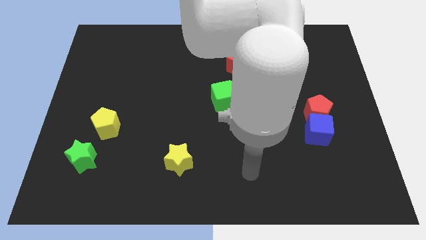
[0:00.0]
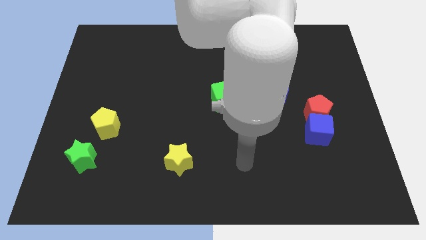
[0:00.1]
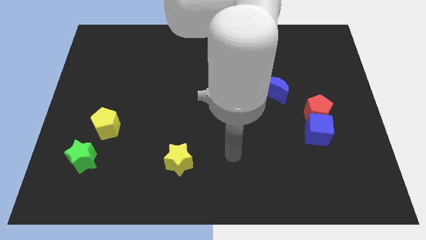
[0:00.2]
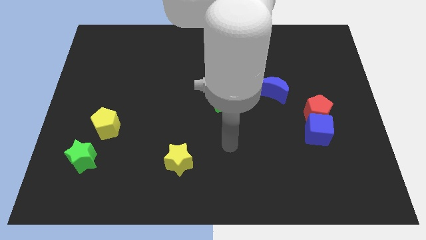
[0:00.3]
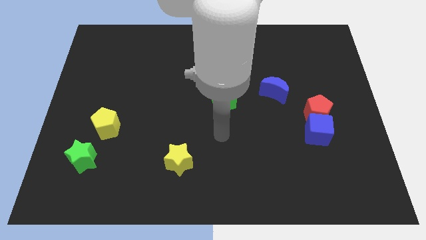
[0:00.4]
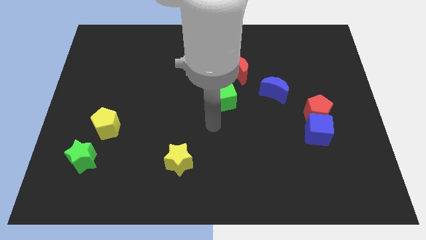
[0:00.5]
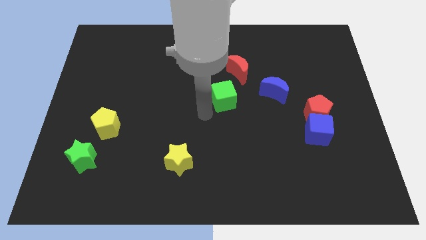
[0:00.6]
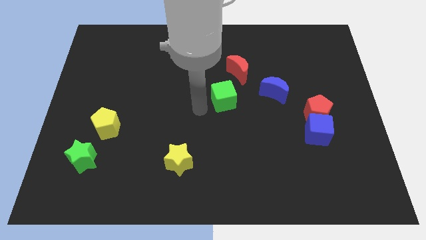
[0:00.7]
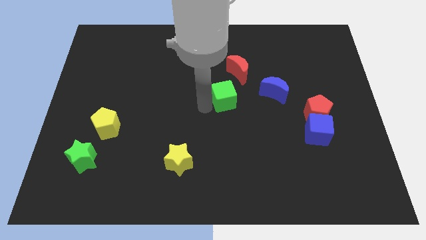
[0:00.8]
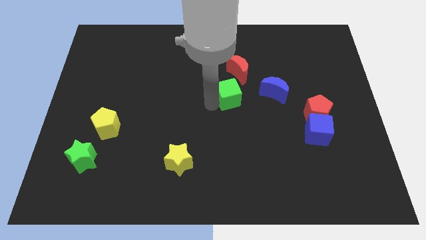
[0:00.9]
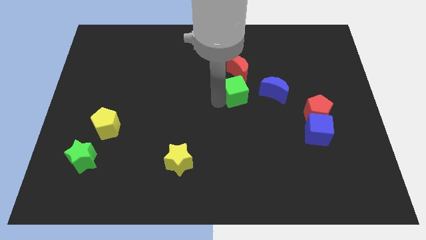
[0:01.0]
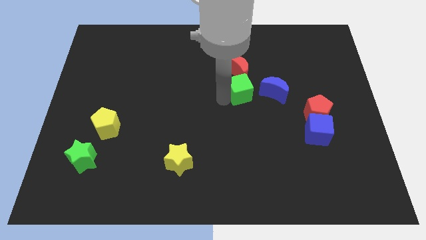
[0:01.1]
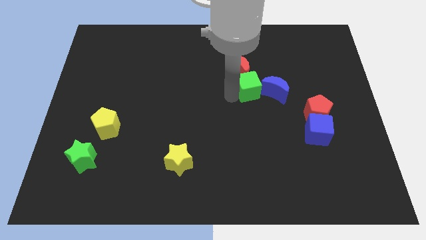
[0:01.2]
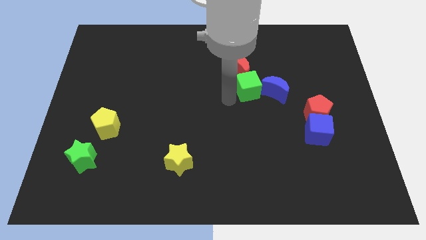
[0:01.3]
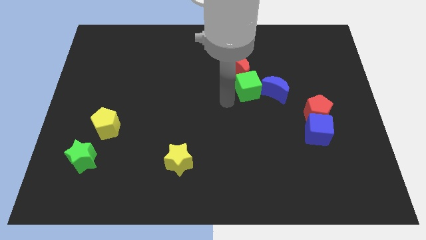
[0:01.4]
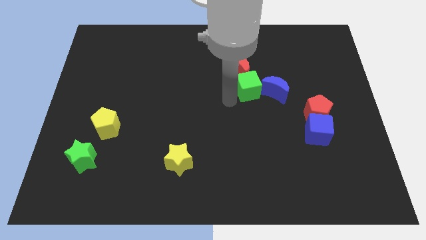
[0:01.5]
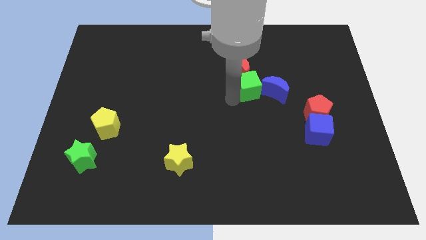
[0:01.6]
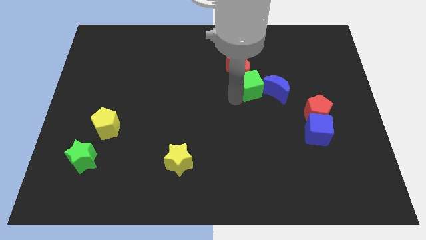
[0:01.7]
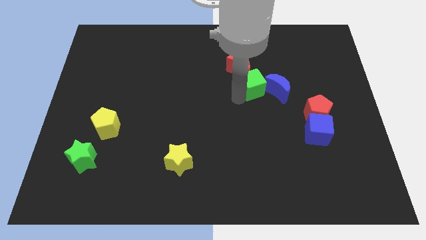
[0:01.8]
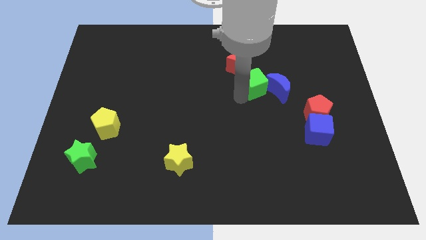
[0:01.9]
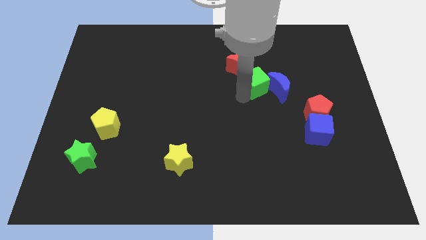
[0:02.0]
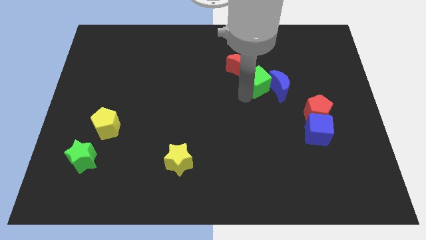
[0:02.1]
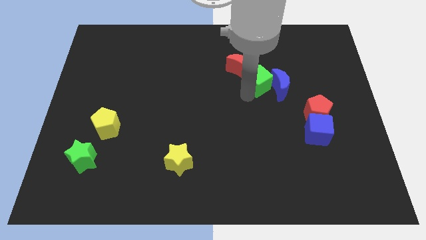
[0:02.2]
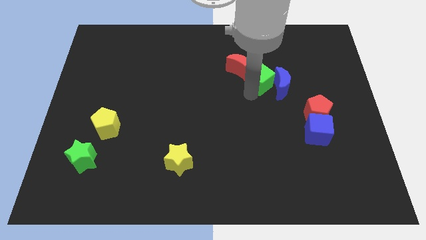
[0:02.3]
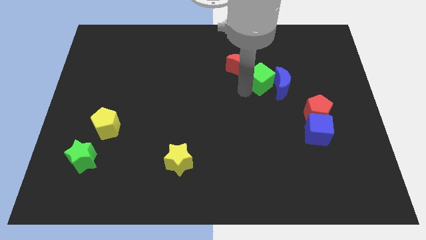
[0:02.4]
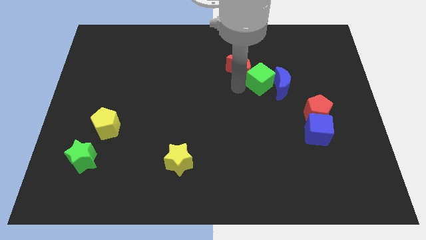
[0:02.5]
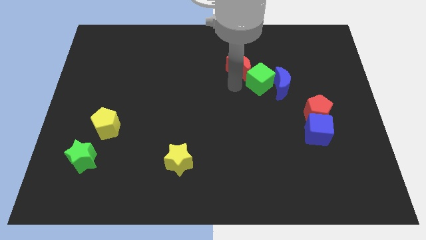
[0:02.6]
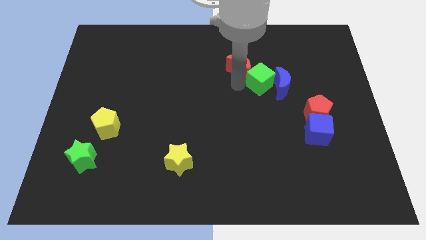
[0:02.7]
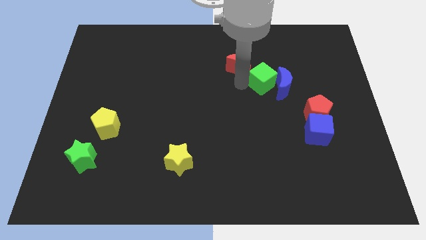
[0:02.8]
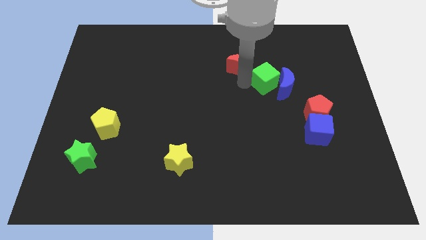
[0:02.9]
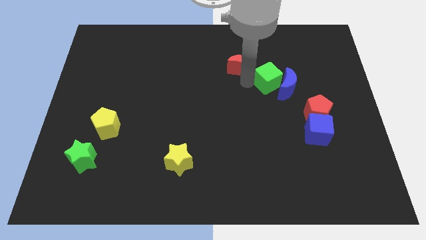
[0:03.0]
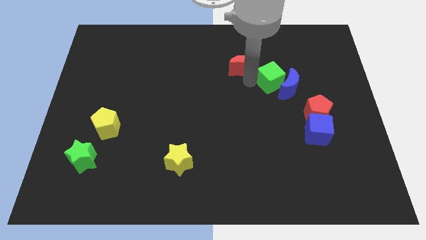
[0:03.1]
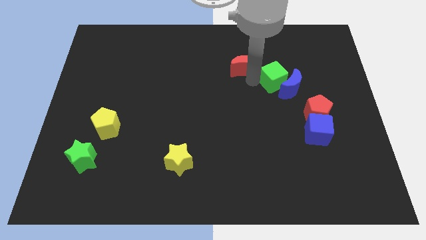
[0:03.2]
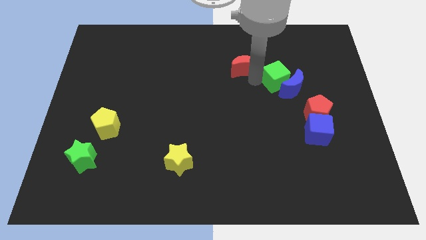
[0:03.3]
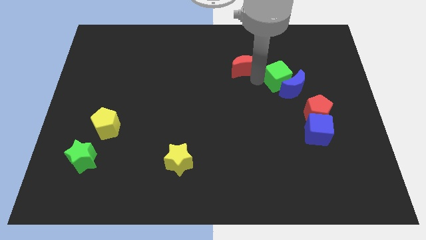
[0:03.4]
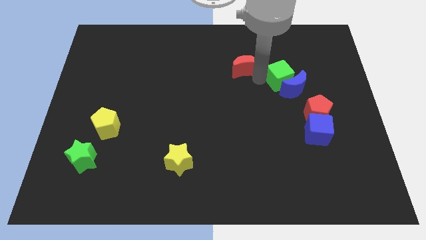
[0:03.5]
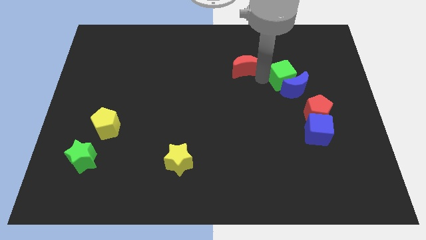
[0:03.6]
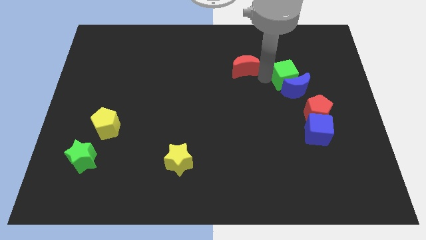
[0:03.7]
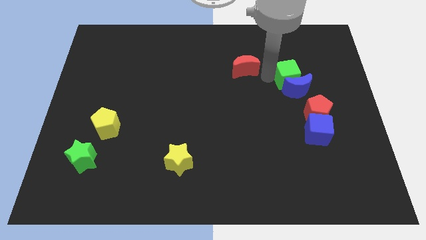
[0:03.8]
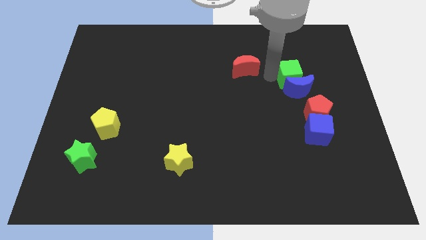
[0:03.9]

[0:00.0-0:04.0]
slide the green cube to the top side of the red pentagon

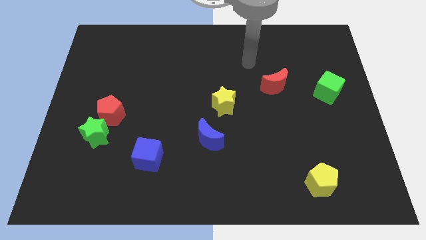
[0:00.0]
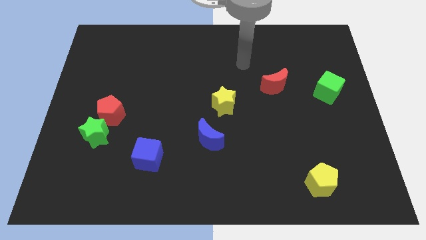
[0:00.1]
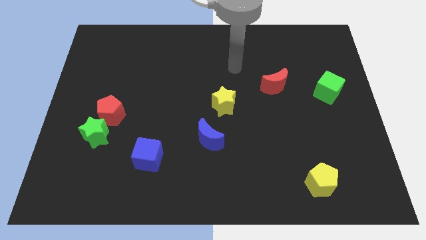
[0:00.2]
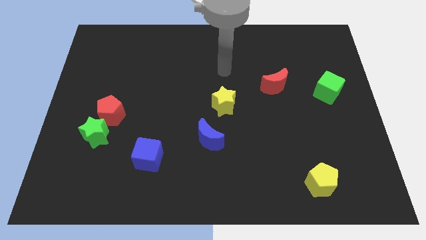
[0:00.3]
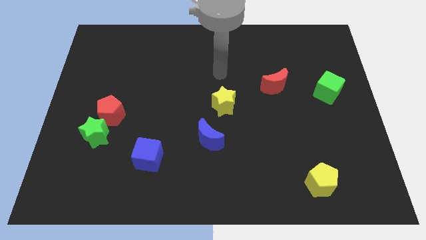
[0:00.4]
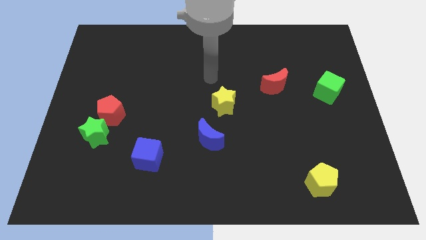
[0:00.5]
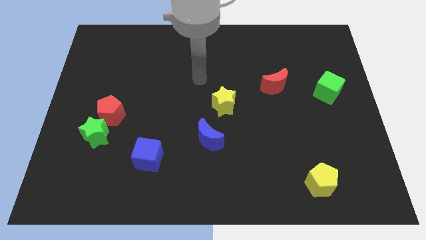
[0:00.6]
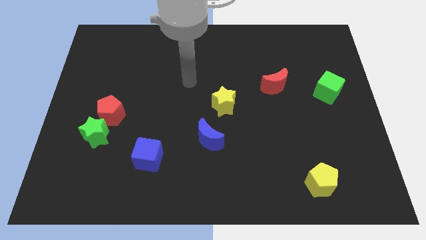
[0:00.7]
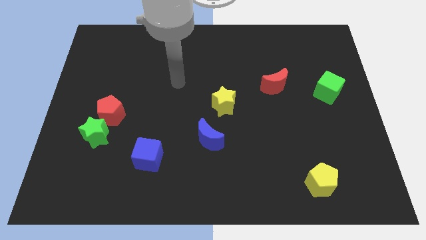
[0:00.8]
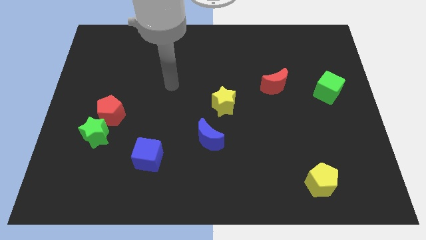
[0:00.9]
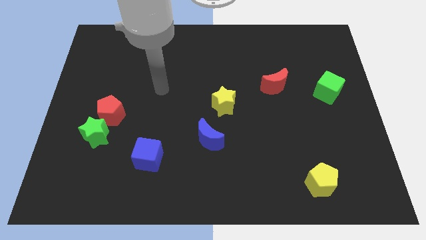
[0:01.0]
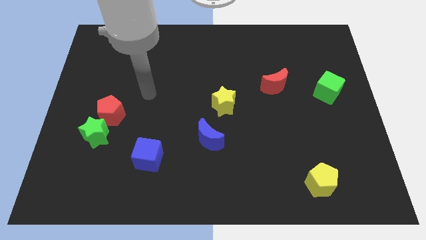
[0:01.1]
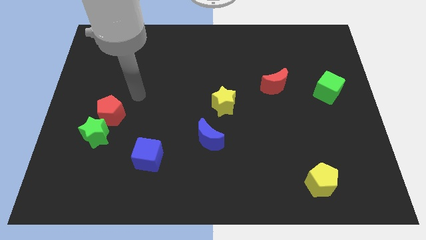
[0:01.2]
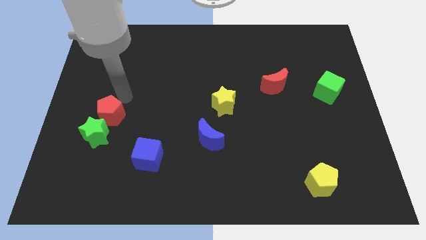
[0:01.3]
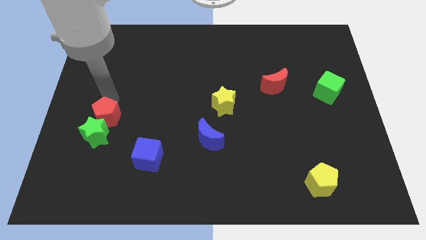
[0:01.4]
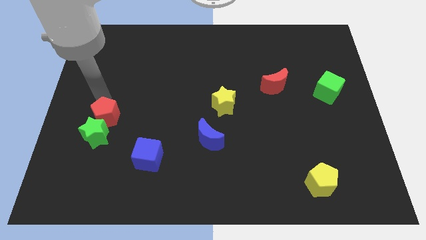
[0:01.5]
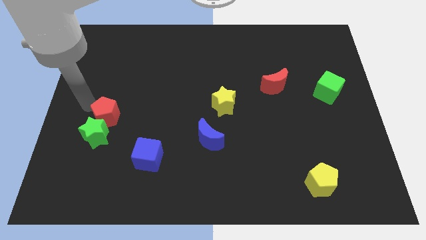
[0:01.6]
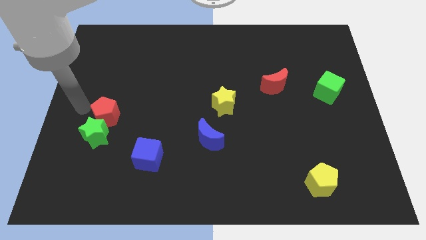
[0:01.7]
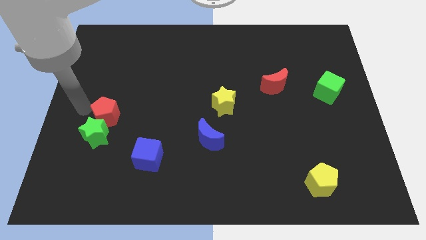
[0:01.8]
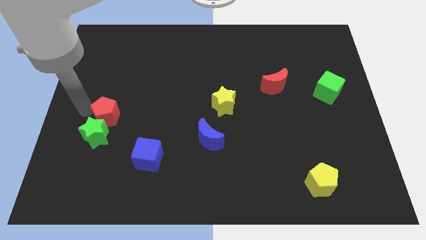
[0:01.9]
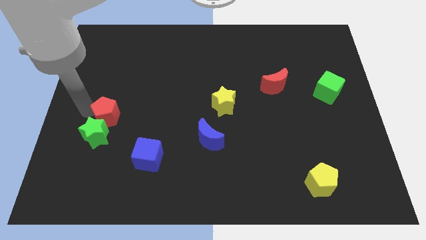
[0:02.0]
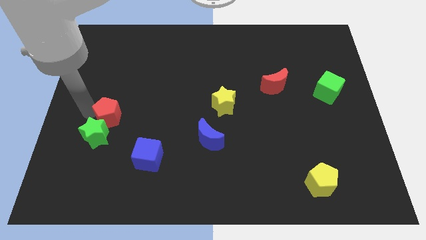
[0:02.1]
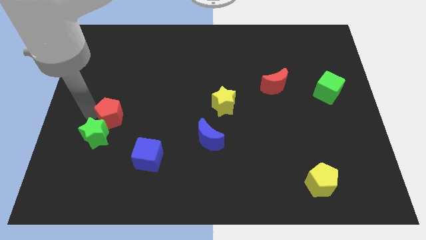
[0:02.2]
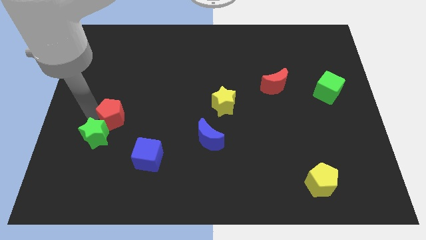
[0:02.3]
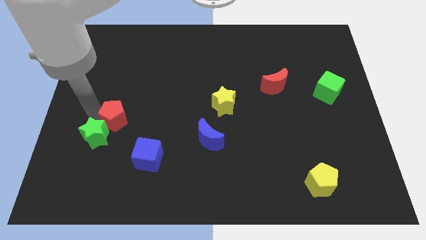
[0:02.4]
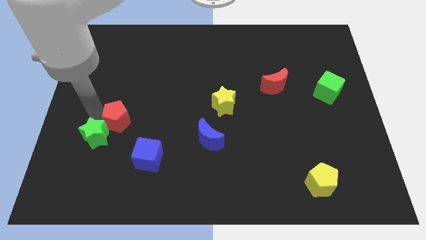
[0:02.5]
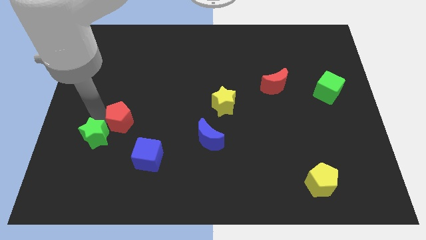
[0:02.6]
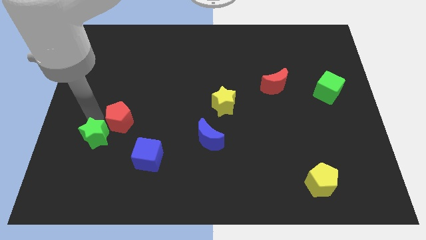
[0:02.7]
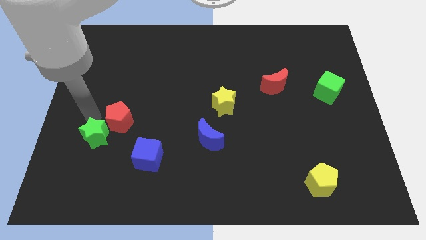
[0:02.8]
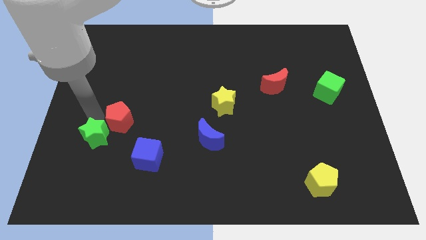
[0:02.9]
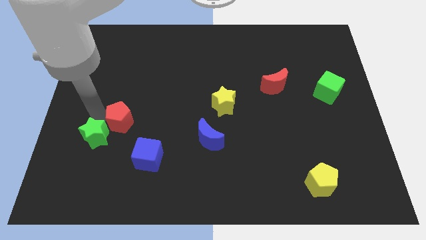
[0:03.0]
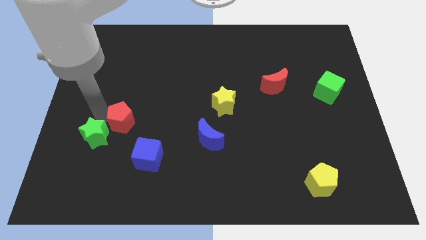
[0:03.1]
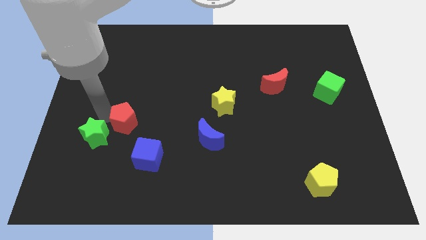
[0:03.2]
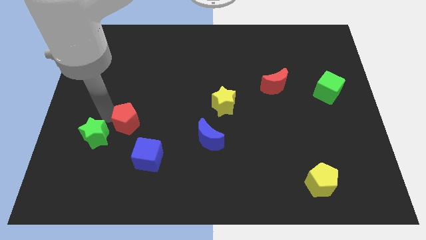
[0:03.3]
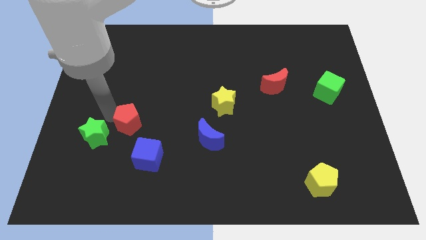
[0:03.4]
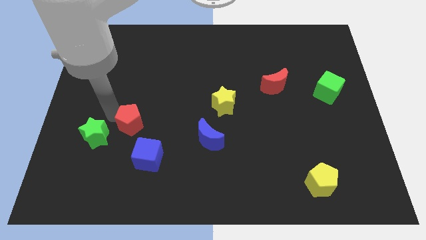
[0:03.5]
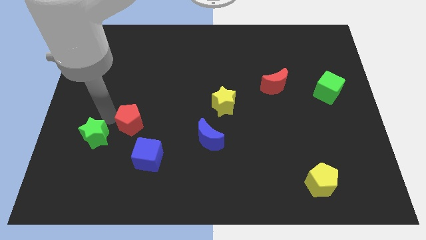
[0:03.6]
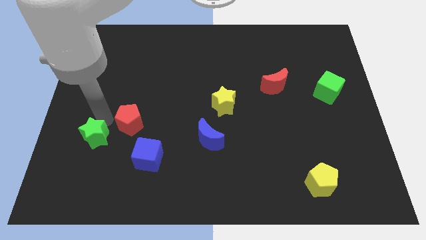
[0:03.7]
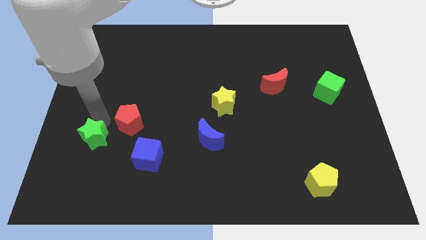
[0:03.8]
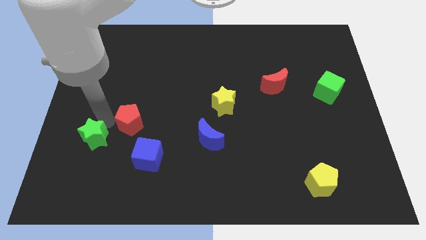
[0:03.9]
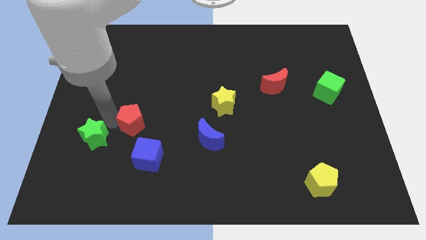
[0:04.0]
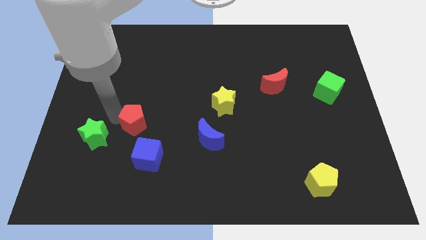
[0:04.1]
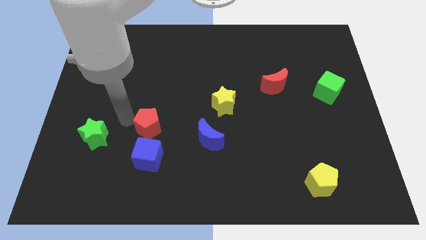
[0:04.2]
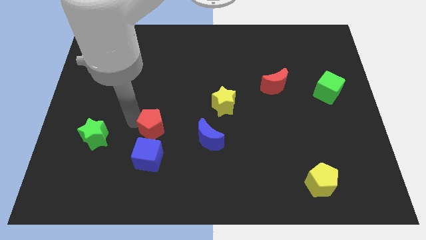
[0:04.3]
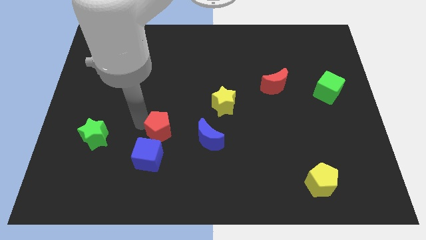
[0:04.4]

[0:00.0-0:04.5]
push the red pentagon diagonally up and to the right of the blue cube
